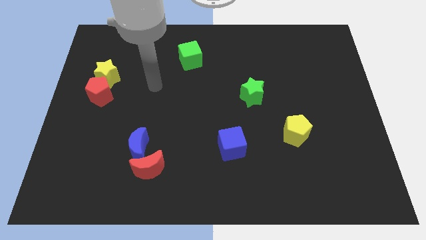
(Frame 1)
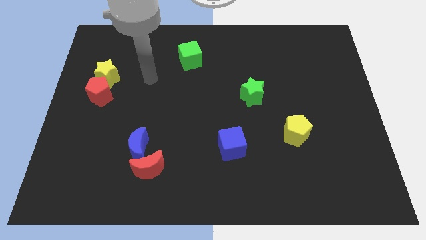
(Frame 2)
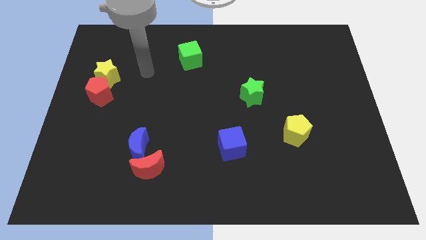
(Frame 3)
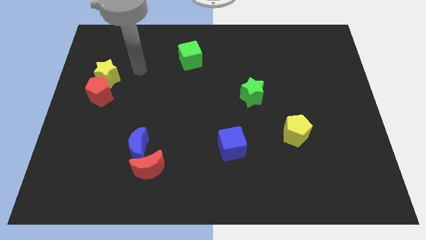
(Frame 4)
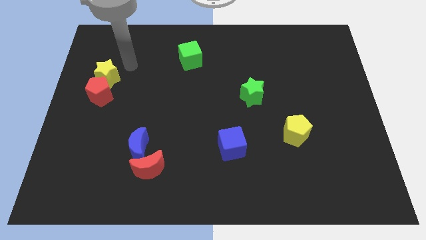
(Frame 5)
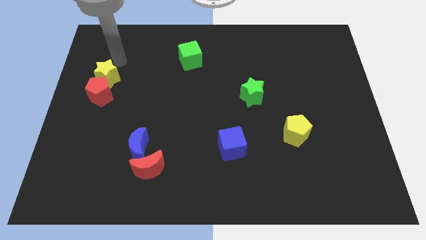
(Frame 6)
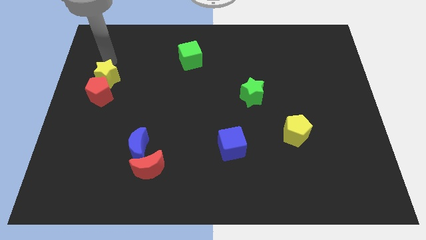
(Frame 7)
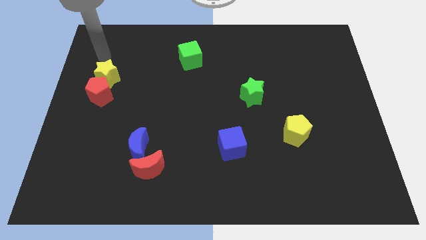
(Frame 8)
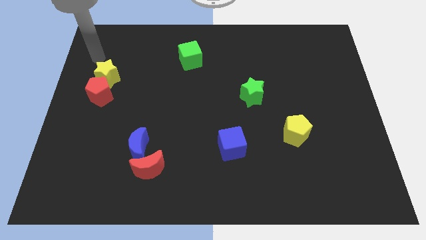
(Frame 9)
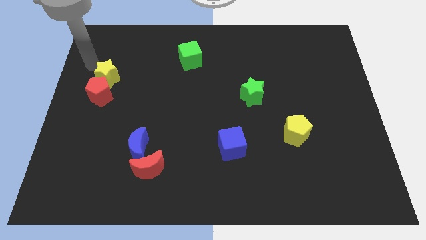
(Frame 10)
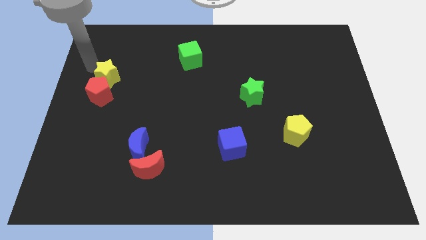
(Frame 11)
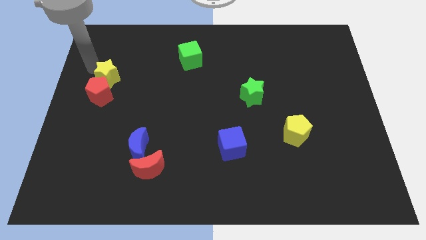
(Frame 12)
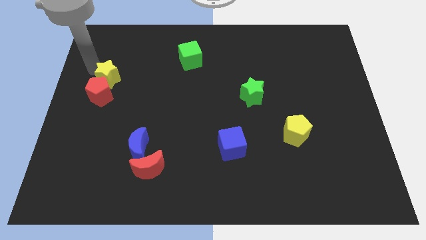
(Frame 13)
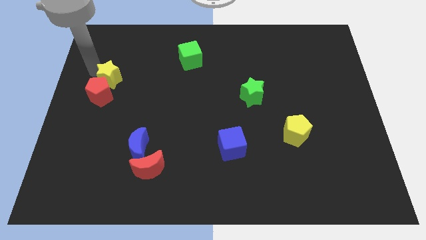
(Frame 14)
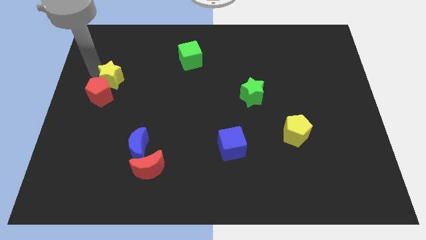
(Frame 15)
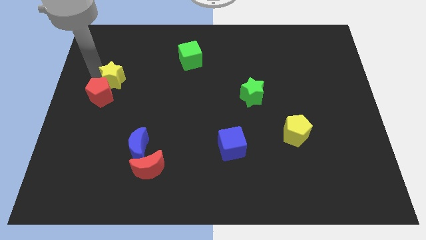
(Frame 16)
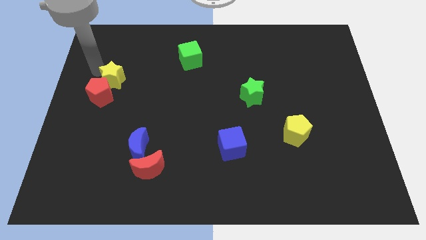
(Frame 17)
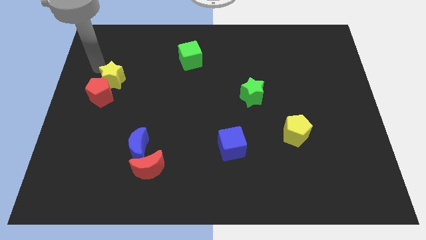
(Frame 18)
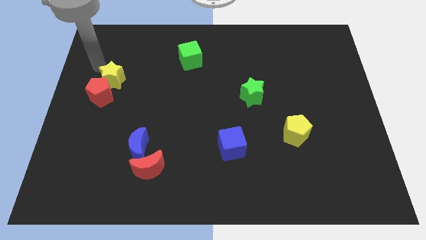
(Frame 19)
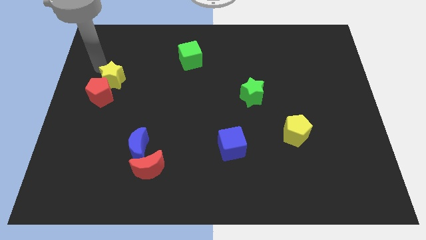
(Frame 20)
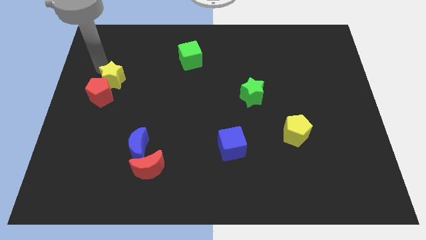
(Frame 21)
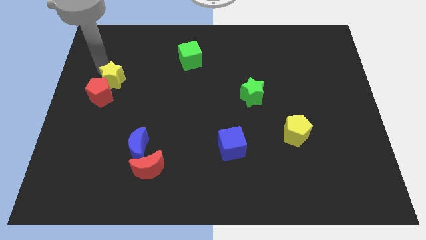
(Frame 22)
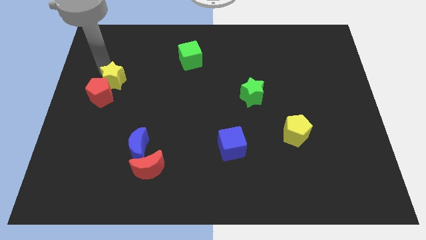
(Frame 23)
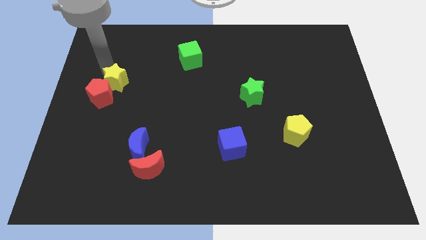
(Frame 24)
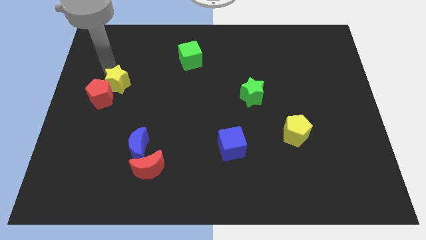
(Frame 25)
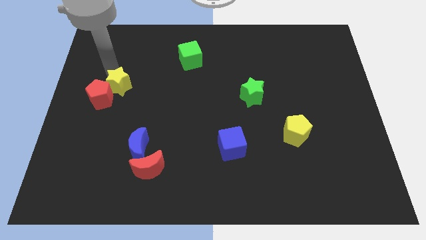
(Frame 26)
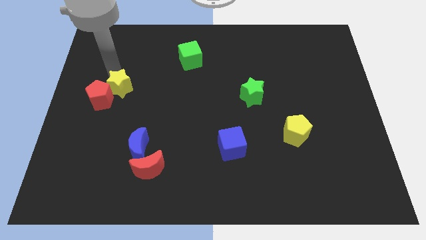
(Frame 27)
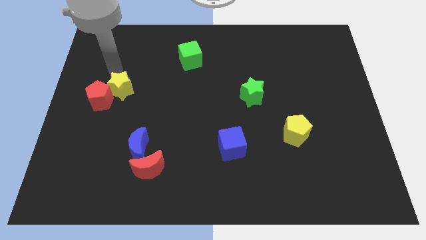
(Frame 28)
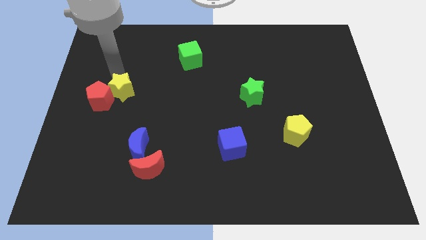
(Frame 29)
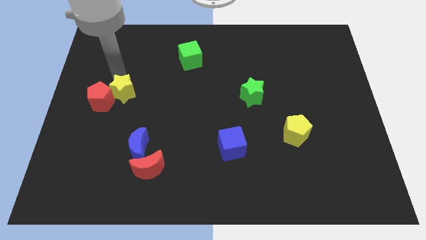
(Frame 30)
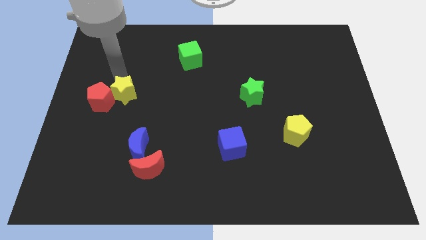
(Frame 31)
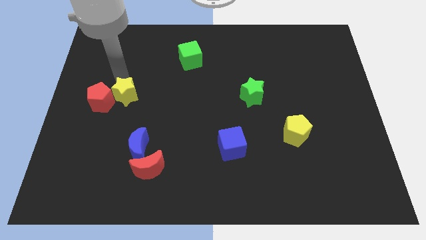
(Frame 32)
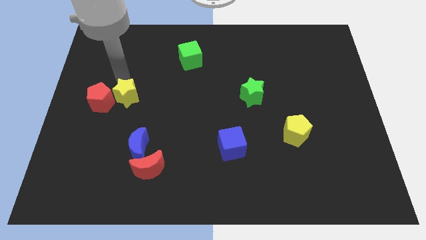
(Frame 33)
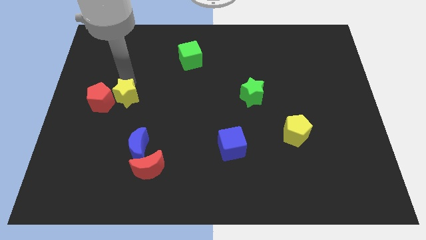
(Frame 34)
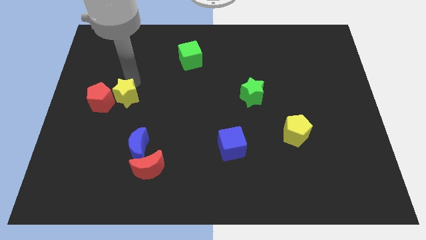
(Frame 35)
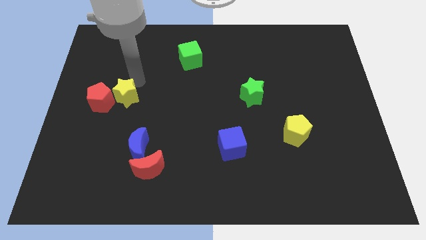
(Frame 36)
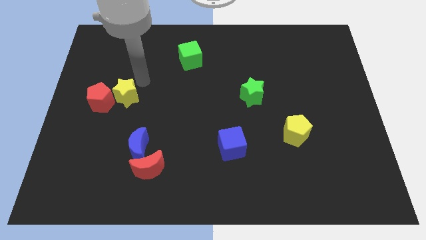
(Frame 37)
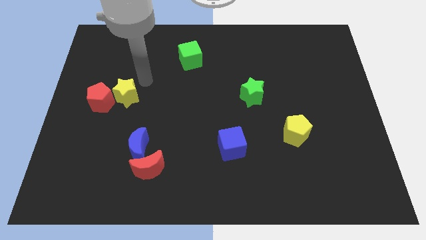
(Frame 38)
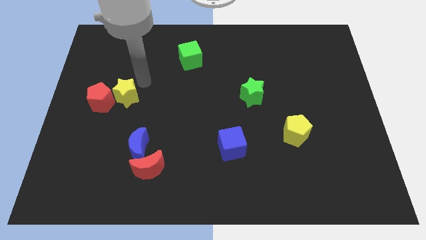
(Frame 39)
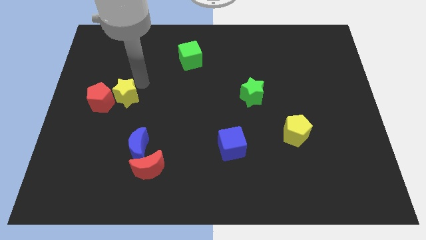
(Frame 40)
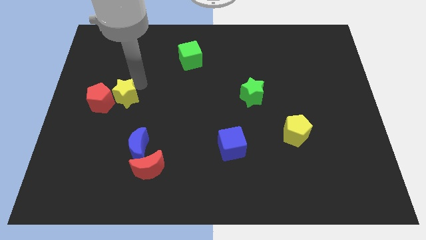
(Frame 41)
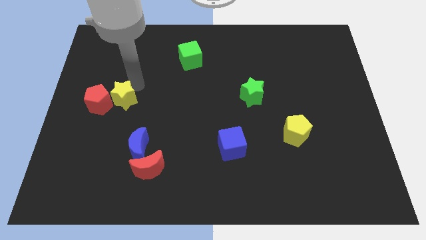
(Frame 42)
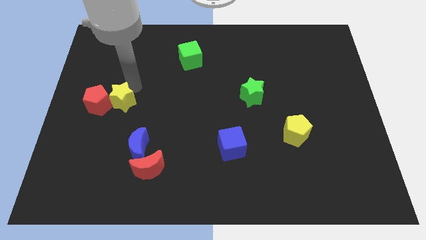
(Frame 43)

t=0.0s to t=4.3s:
push the yellow star downwards somewhat

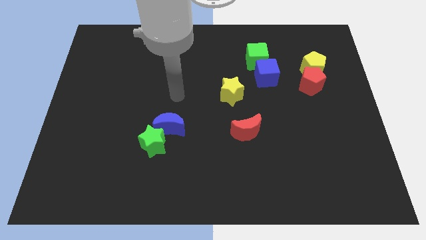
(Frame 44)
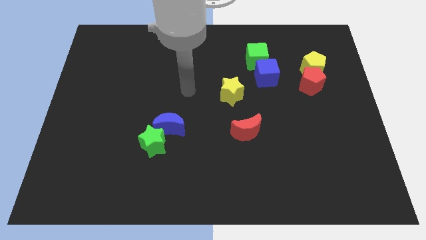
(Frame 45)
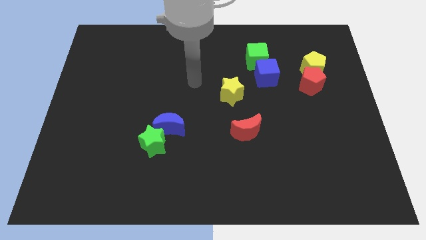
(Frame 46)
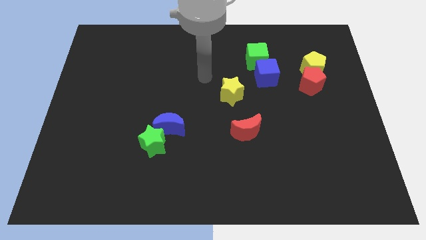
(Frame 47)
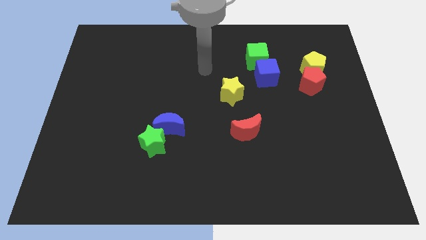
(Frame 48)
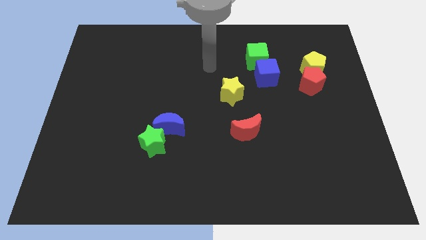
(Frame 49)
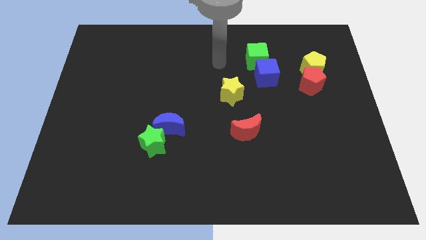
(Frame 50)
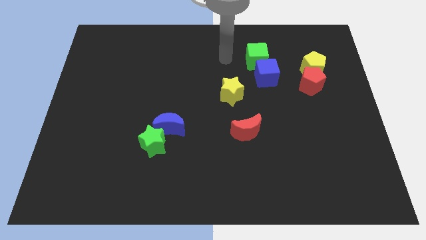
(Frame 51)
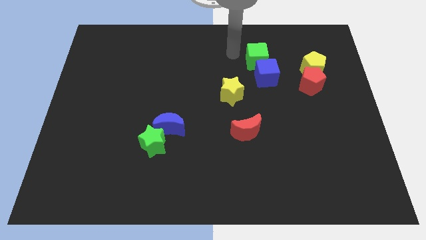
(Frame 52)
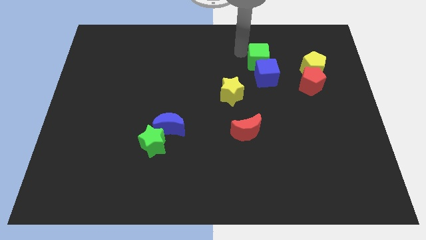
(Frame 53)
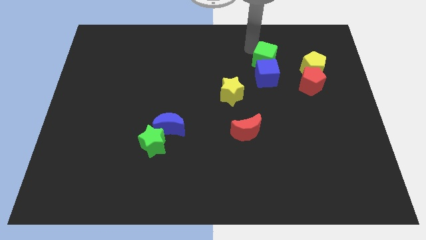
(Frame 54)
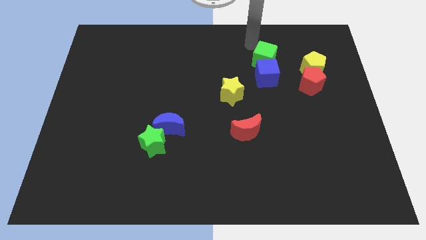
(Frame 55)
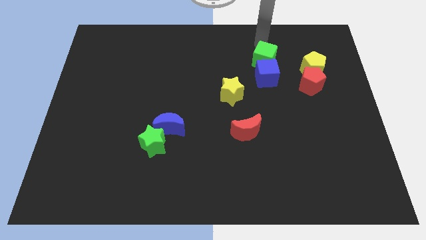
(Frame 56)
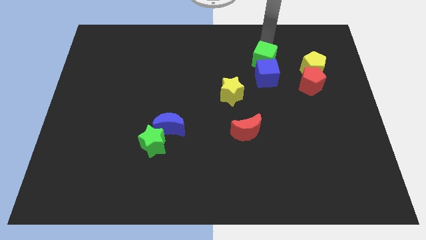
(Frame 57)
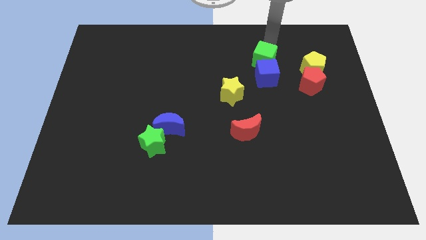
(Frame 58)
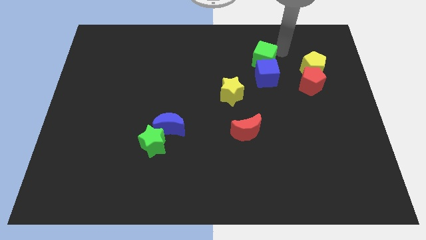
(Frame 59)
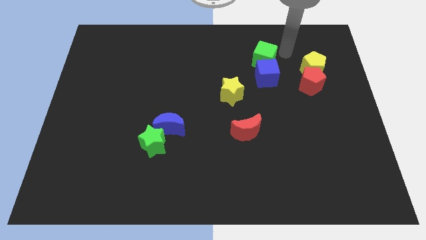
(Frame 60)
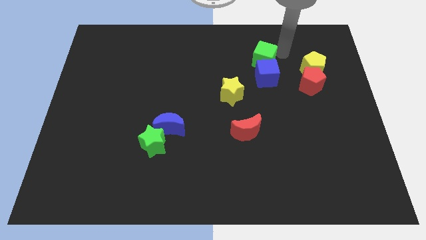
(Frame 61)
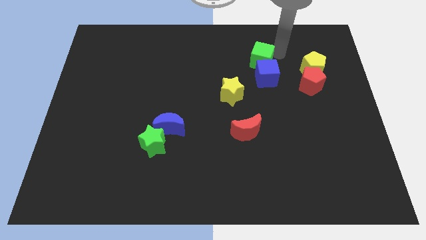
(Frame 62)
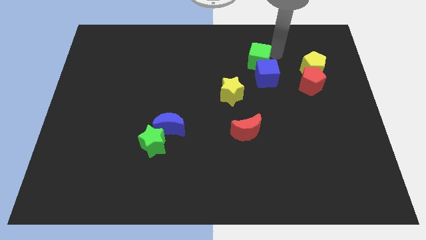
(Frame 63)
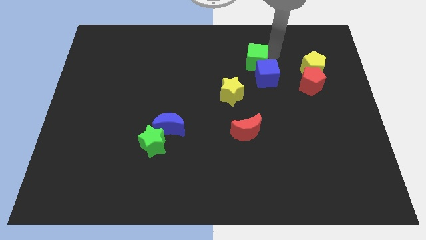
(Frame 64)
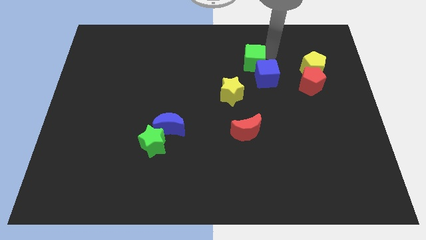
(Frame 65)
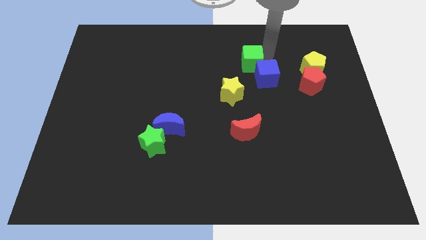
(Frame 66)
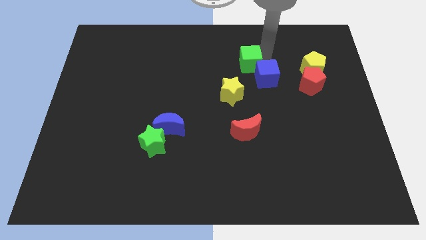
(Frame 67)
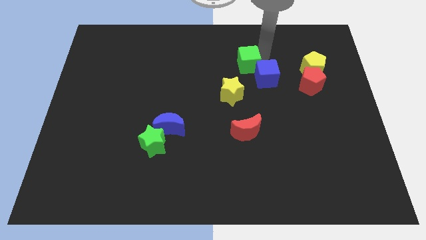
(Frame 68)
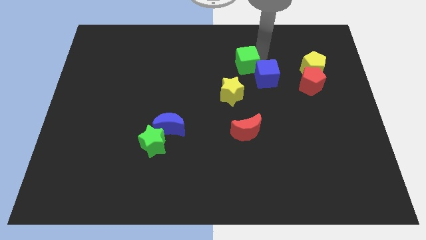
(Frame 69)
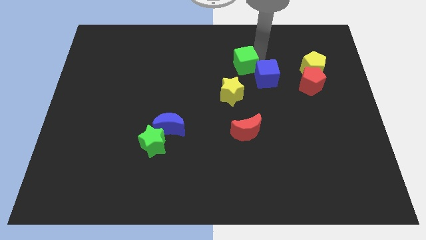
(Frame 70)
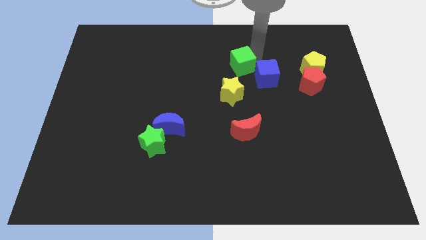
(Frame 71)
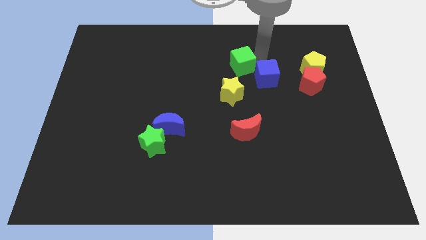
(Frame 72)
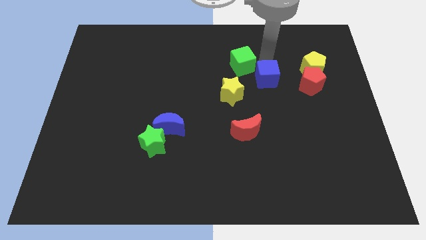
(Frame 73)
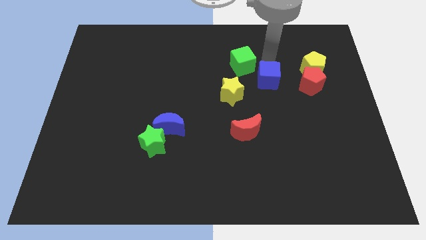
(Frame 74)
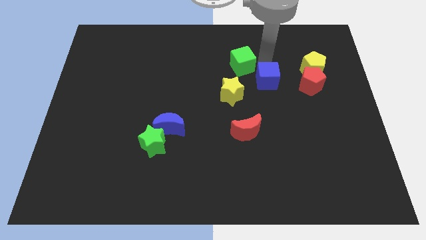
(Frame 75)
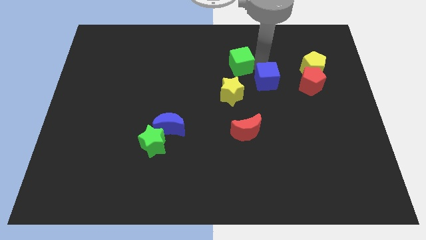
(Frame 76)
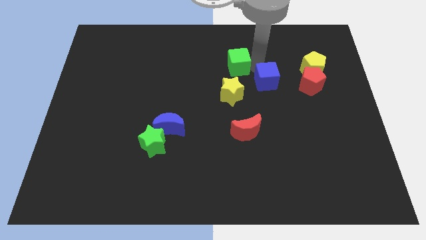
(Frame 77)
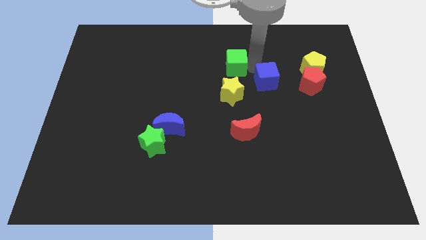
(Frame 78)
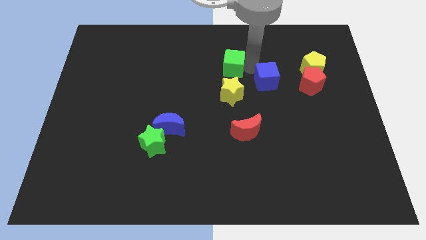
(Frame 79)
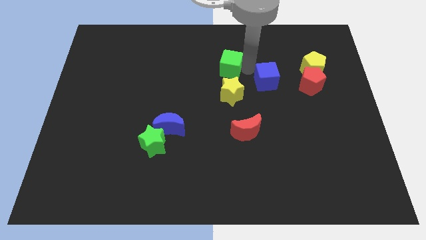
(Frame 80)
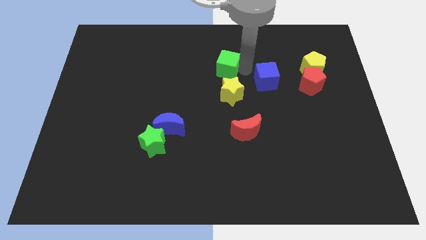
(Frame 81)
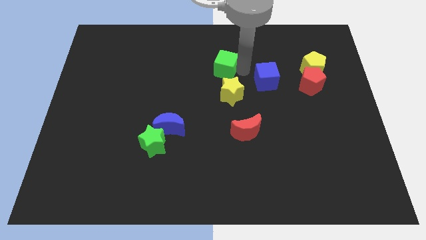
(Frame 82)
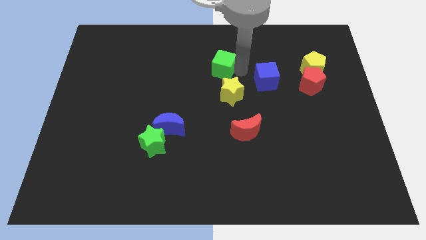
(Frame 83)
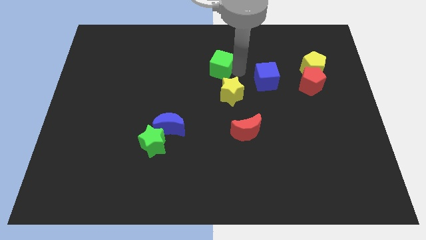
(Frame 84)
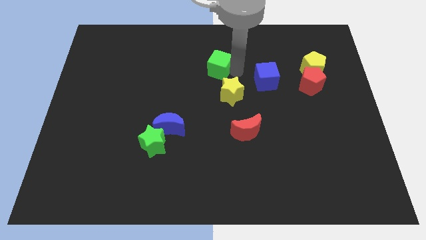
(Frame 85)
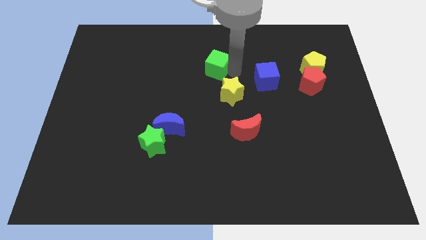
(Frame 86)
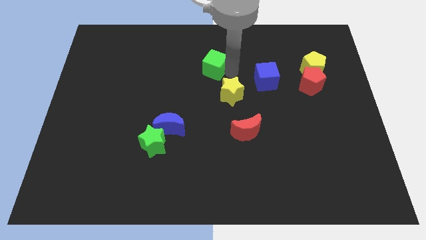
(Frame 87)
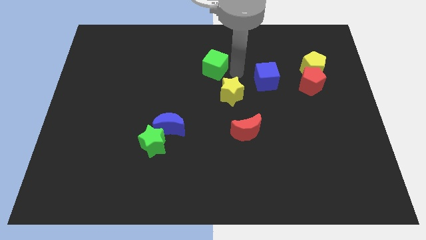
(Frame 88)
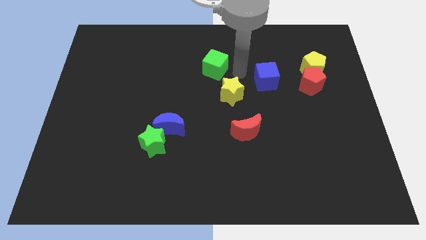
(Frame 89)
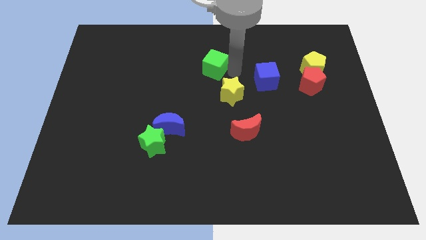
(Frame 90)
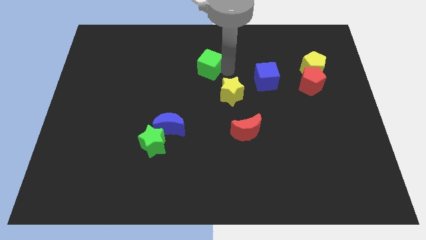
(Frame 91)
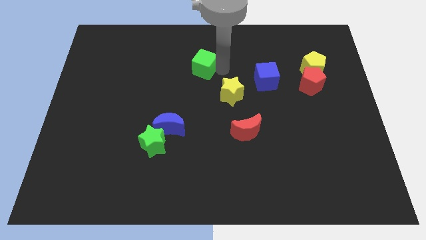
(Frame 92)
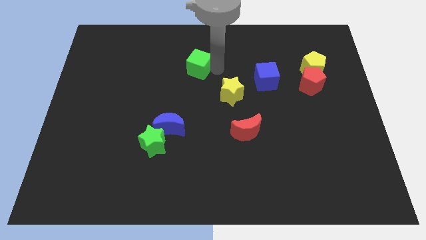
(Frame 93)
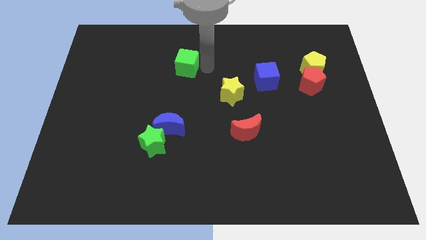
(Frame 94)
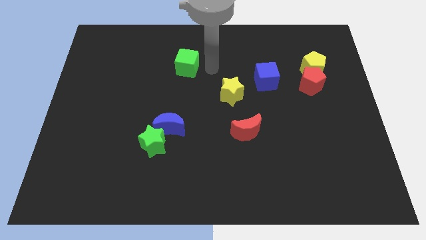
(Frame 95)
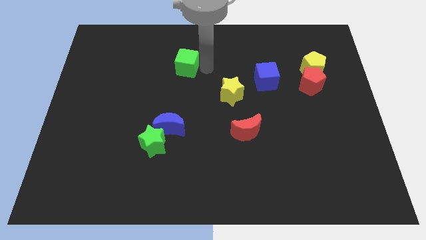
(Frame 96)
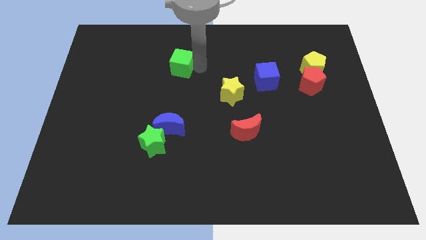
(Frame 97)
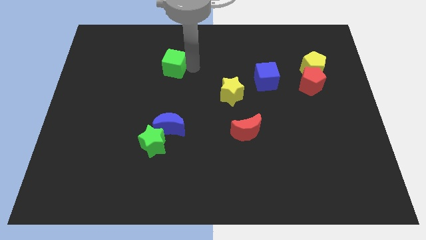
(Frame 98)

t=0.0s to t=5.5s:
move the green cube left
